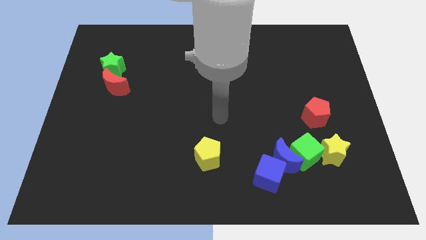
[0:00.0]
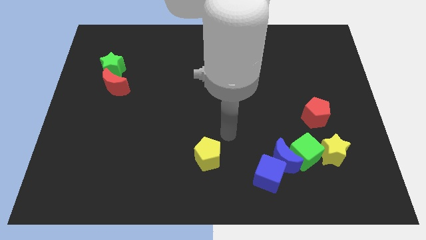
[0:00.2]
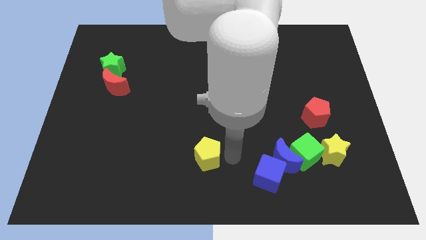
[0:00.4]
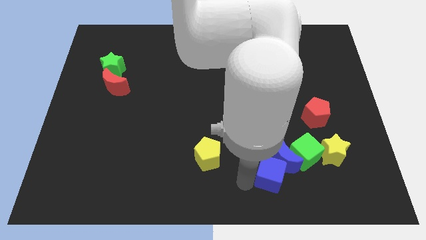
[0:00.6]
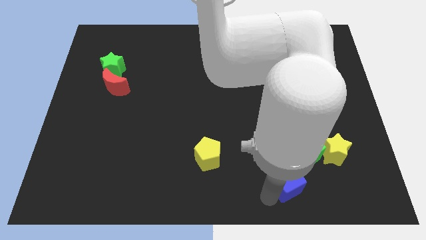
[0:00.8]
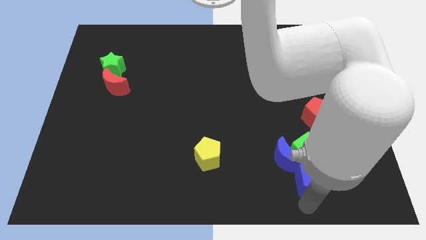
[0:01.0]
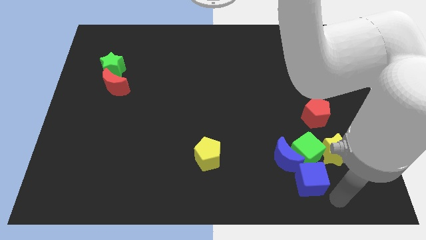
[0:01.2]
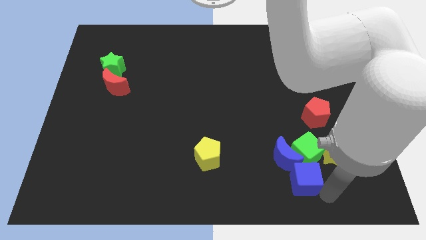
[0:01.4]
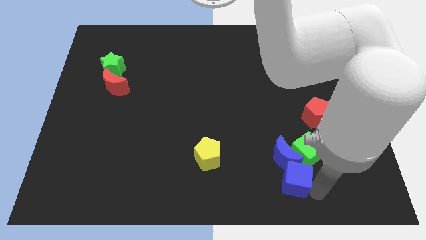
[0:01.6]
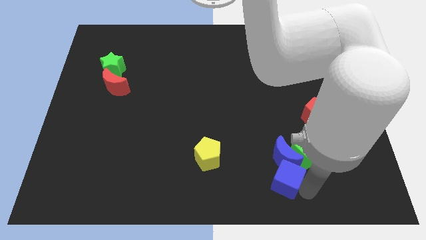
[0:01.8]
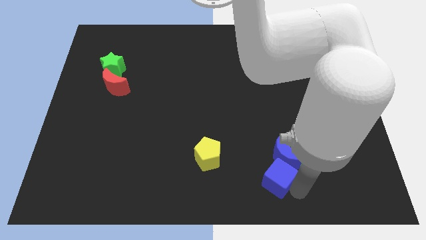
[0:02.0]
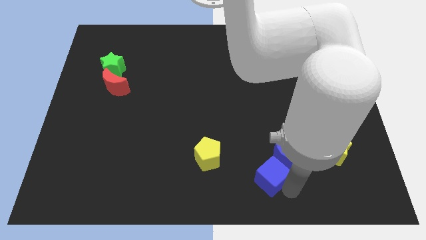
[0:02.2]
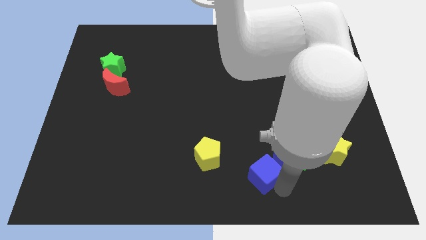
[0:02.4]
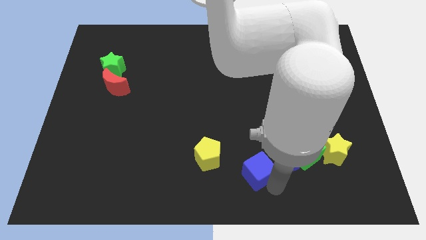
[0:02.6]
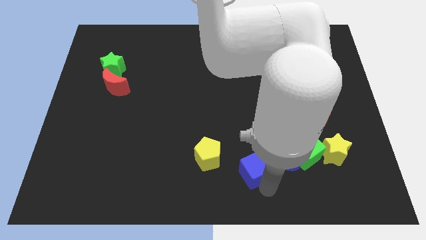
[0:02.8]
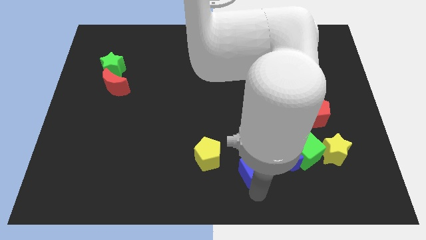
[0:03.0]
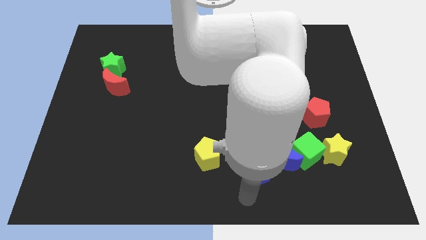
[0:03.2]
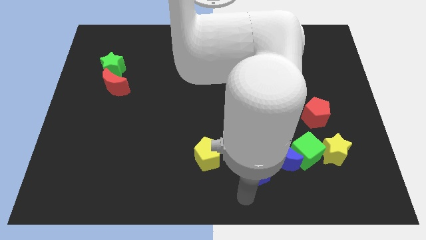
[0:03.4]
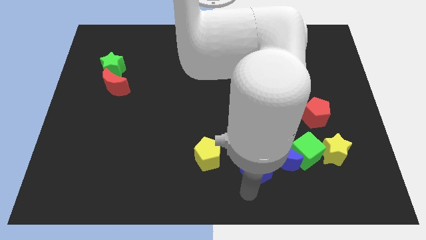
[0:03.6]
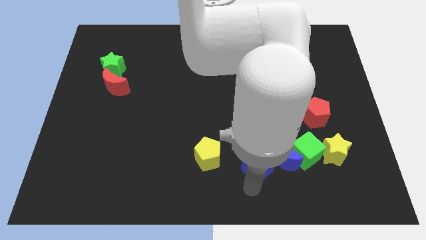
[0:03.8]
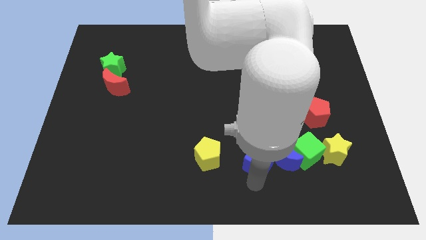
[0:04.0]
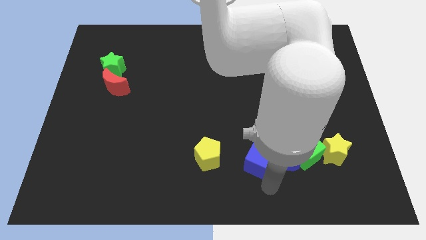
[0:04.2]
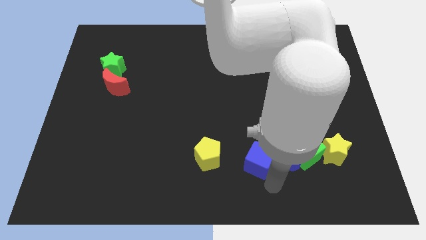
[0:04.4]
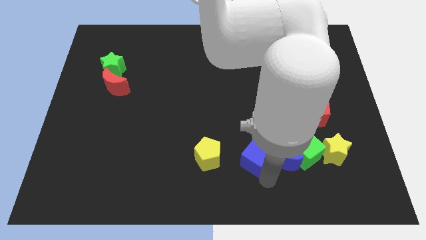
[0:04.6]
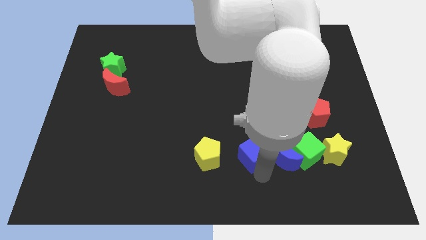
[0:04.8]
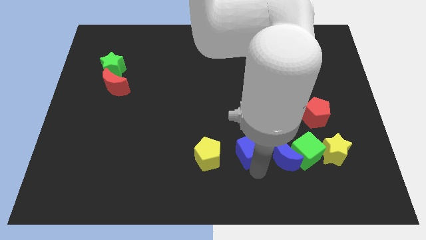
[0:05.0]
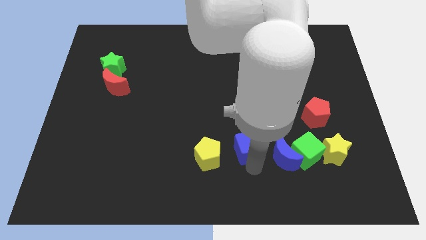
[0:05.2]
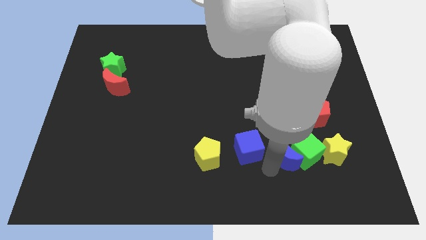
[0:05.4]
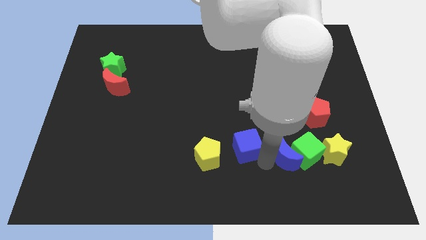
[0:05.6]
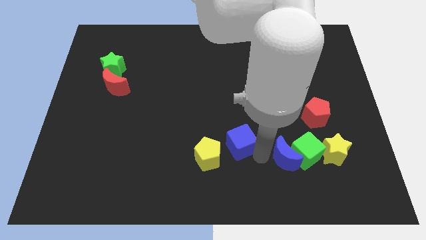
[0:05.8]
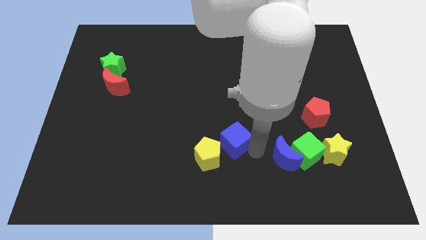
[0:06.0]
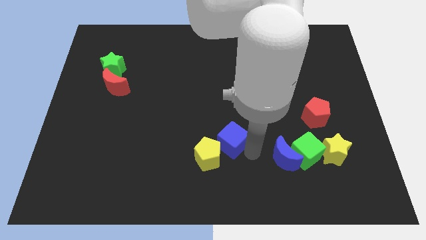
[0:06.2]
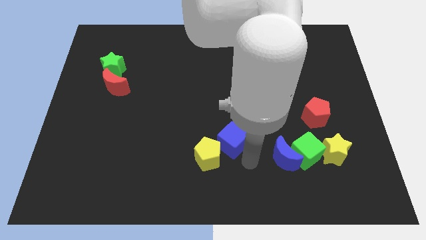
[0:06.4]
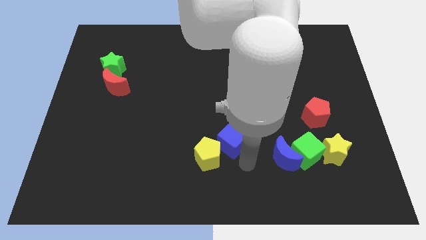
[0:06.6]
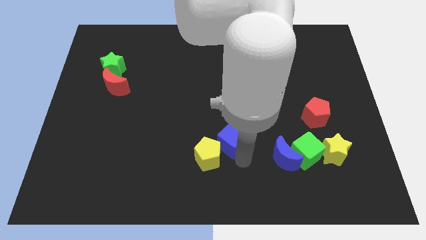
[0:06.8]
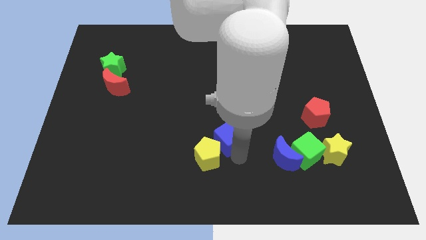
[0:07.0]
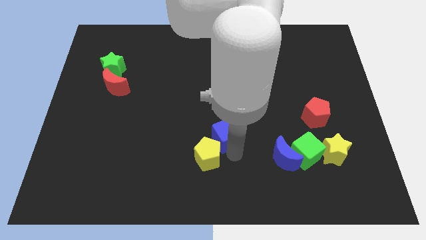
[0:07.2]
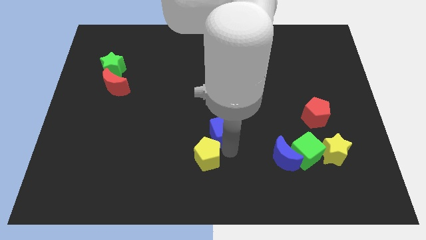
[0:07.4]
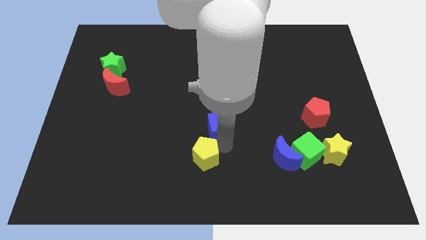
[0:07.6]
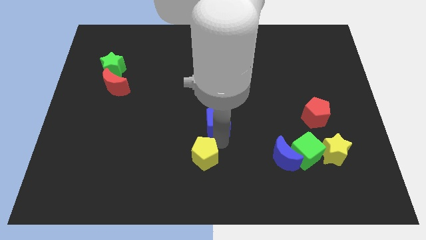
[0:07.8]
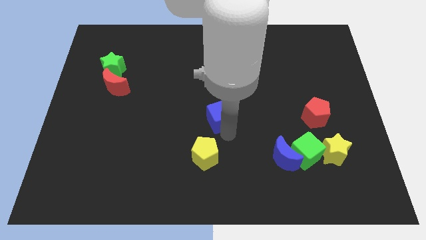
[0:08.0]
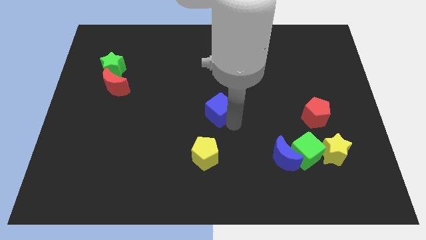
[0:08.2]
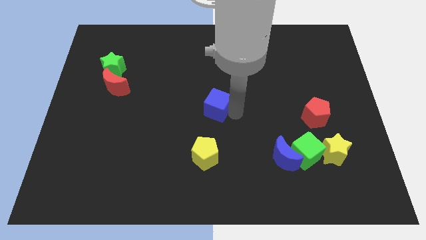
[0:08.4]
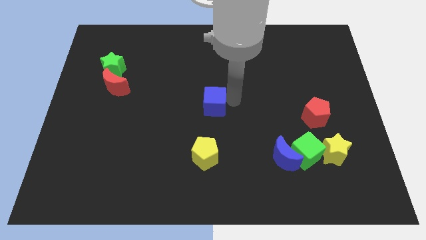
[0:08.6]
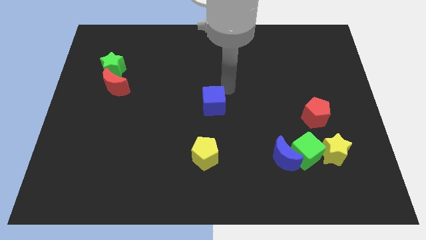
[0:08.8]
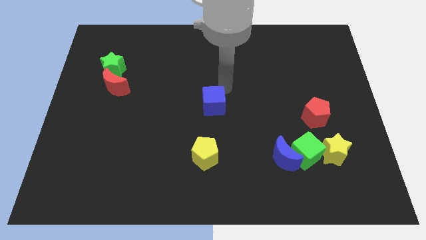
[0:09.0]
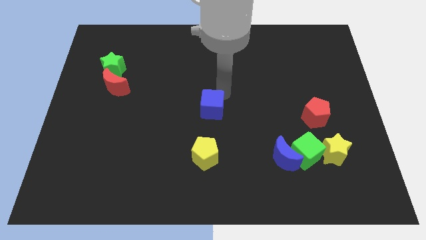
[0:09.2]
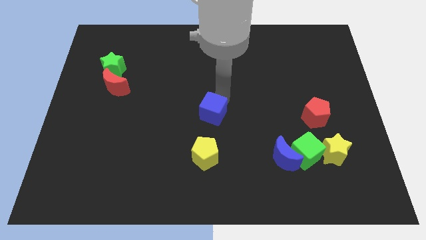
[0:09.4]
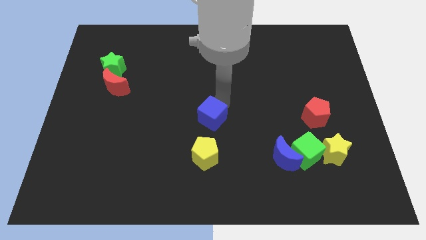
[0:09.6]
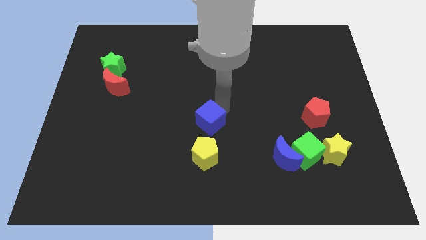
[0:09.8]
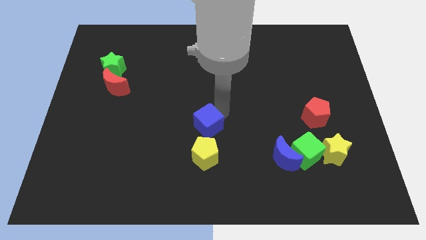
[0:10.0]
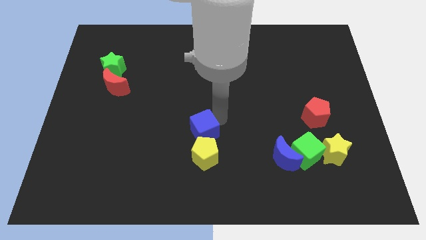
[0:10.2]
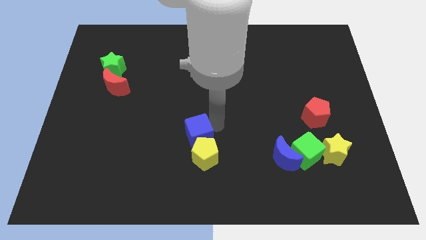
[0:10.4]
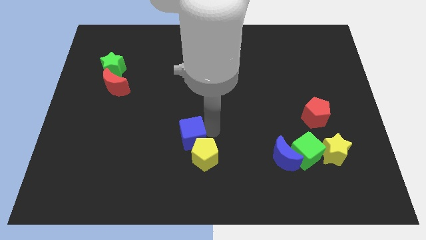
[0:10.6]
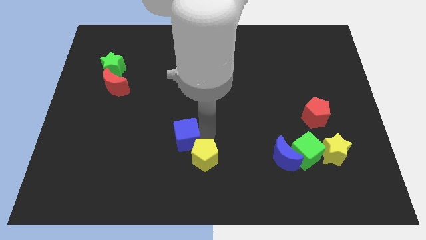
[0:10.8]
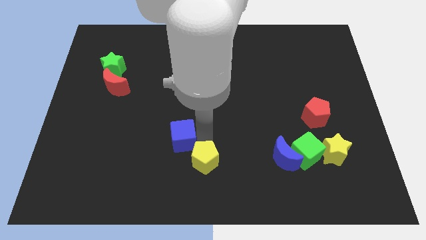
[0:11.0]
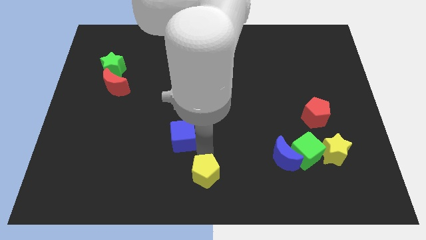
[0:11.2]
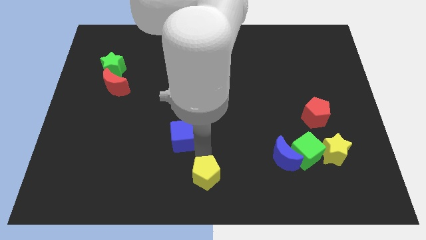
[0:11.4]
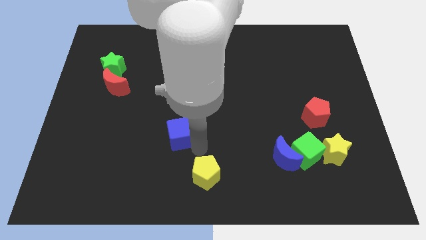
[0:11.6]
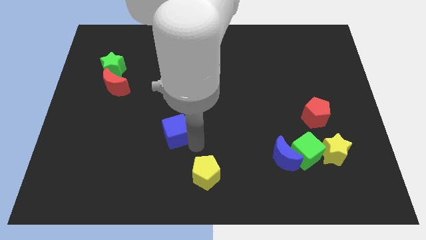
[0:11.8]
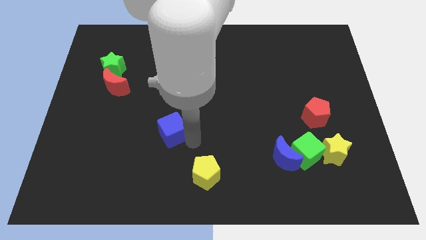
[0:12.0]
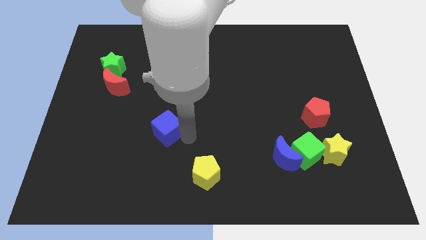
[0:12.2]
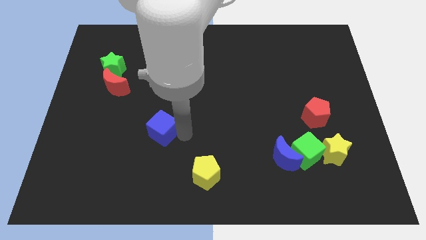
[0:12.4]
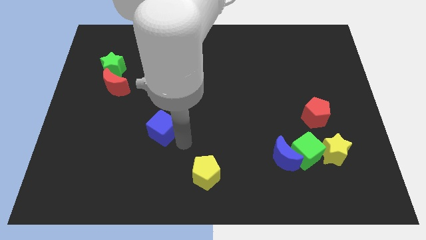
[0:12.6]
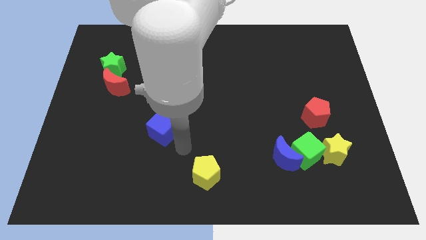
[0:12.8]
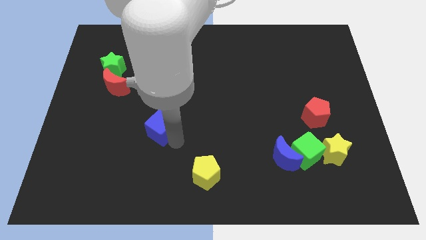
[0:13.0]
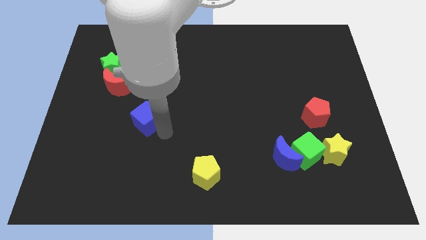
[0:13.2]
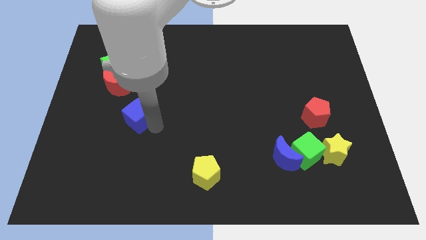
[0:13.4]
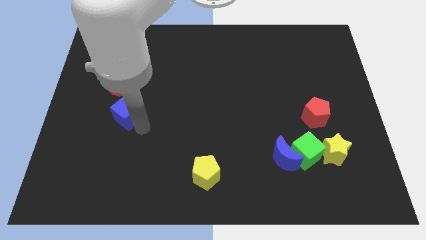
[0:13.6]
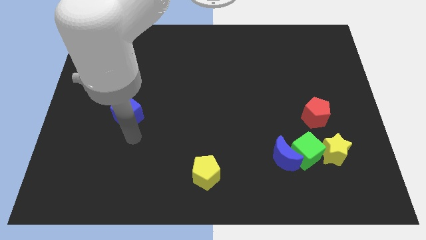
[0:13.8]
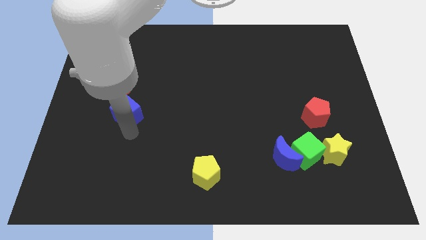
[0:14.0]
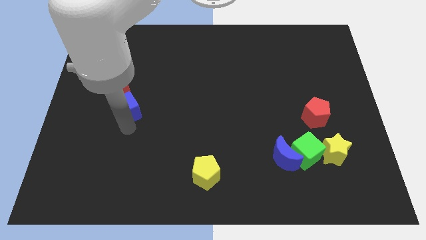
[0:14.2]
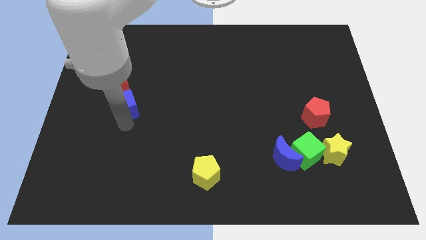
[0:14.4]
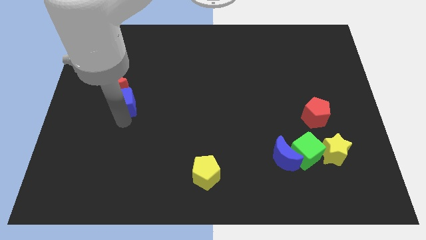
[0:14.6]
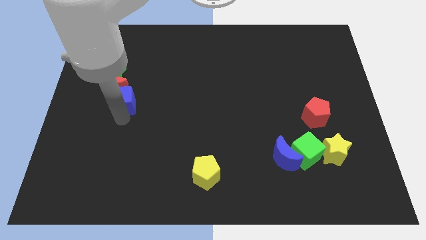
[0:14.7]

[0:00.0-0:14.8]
move the blue cube to the red moon
